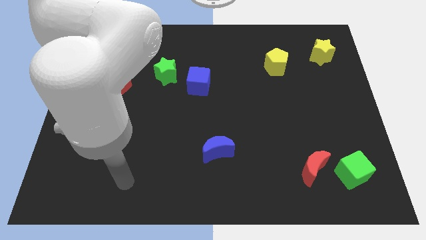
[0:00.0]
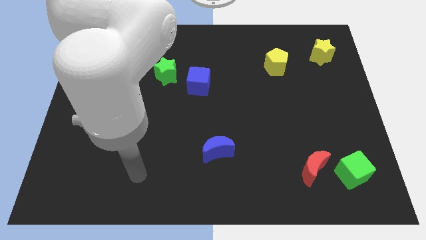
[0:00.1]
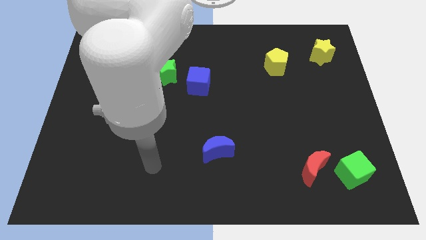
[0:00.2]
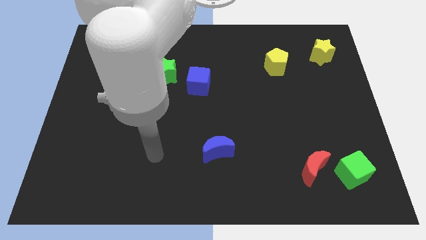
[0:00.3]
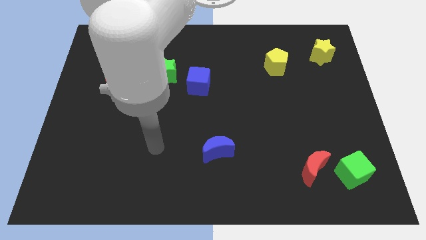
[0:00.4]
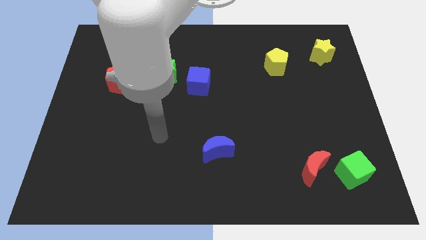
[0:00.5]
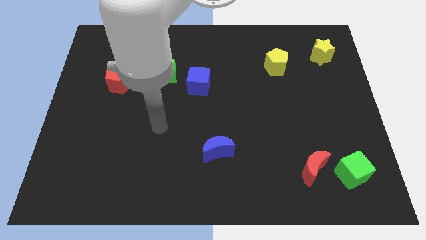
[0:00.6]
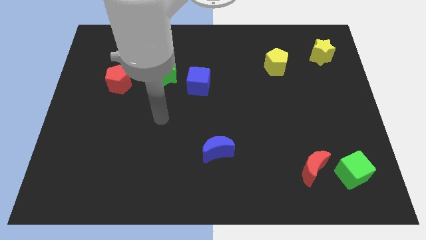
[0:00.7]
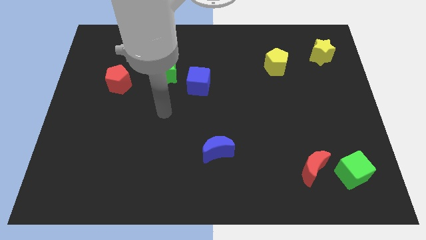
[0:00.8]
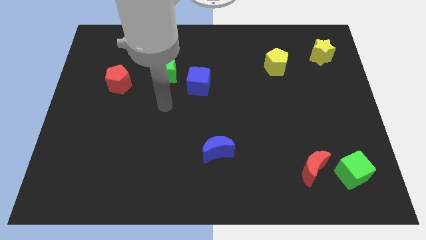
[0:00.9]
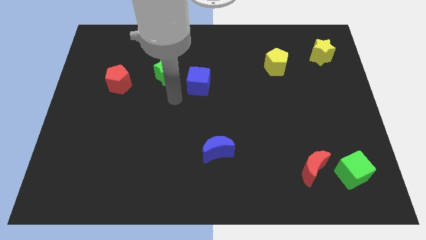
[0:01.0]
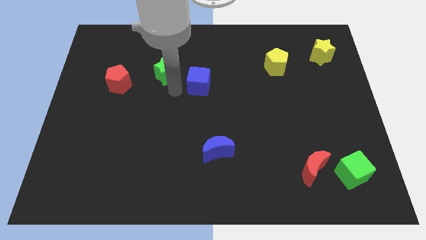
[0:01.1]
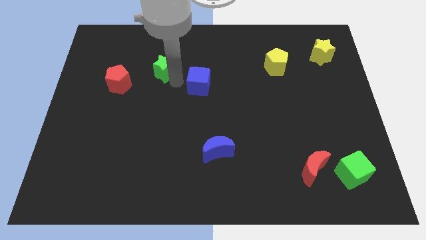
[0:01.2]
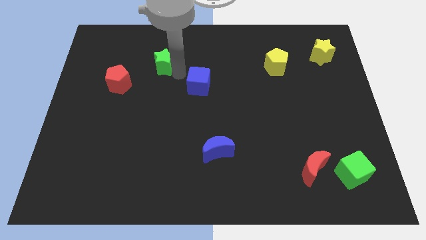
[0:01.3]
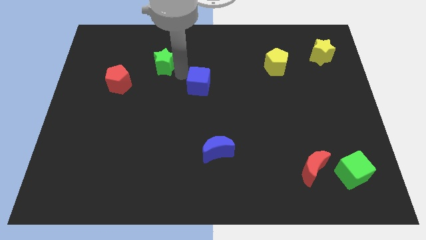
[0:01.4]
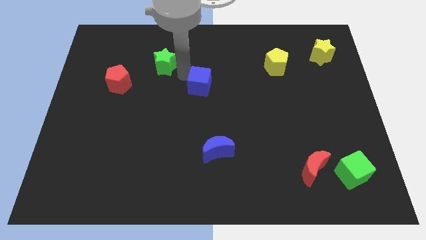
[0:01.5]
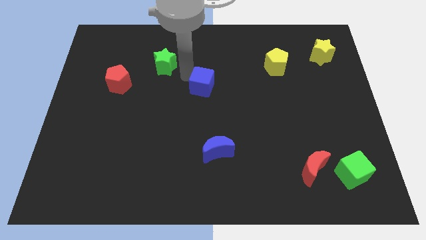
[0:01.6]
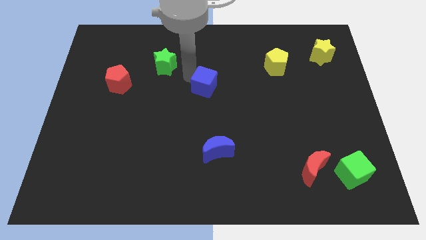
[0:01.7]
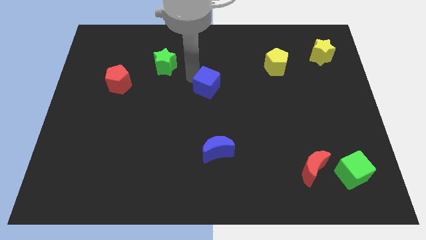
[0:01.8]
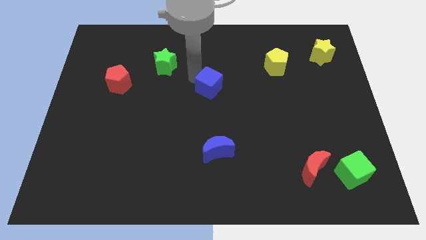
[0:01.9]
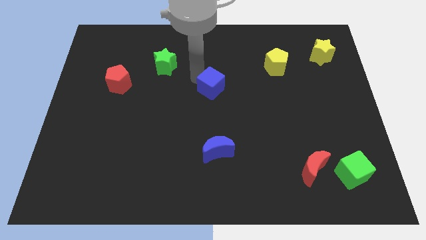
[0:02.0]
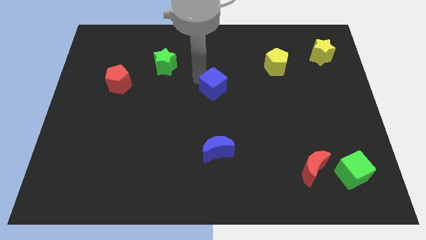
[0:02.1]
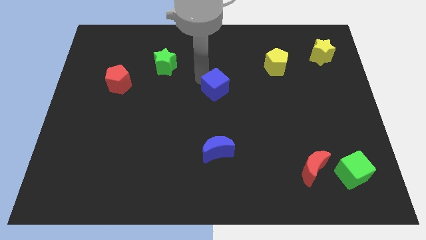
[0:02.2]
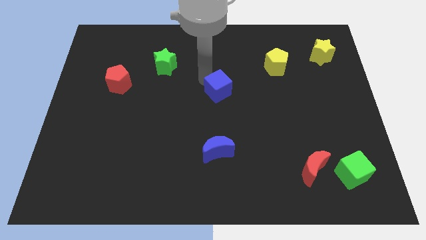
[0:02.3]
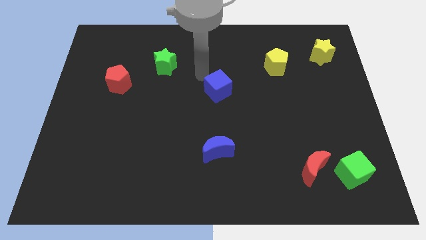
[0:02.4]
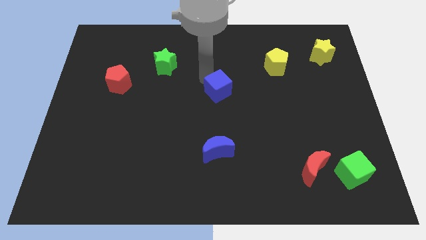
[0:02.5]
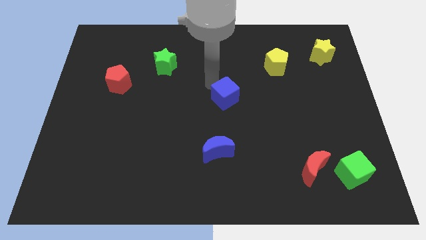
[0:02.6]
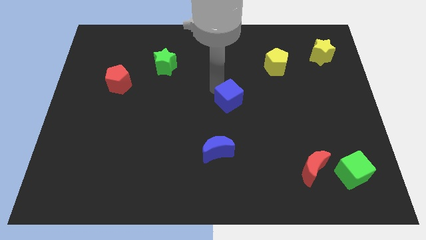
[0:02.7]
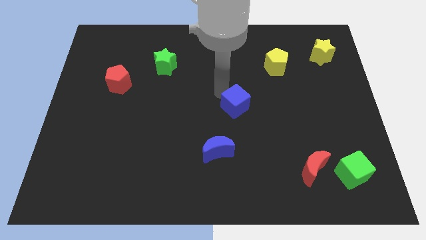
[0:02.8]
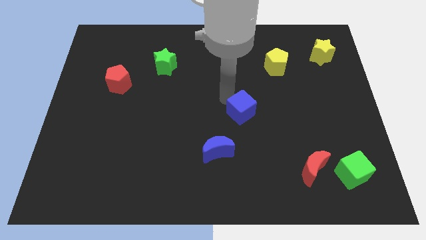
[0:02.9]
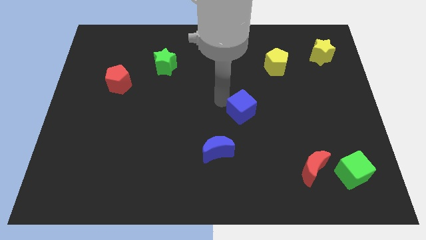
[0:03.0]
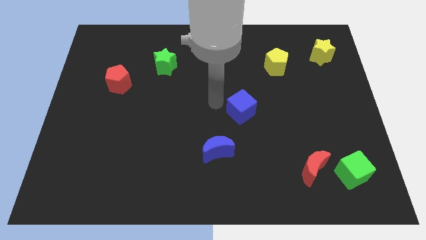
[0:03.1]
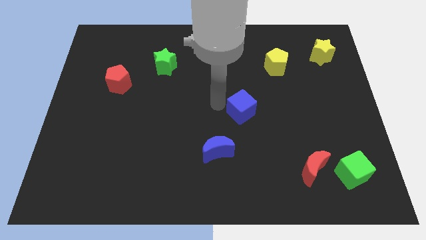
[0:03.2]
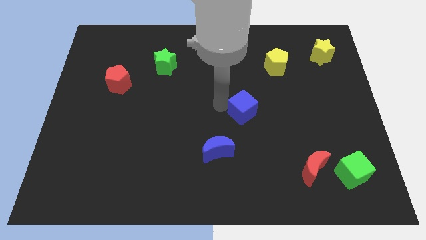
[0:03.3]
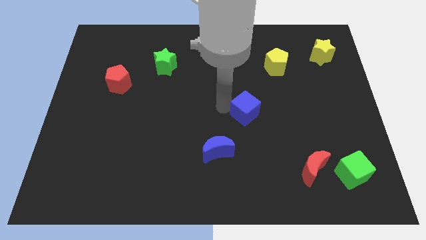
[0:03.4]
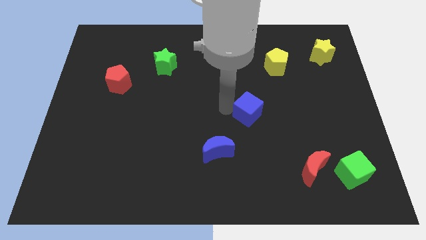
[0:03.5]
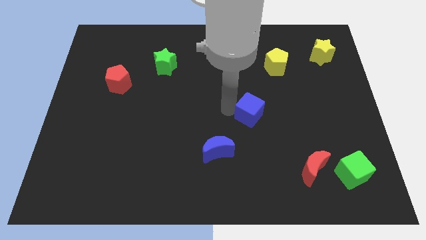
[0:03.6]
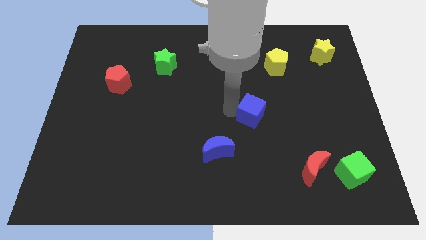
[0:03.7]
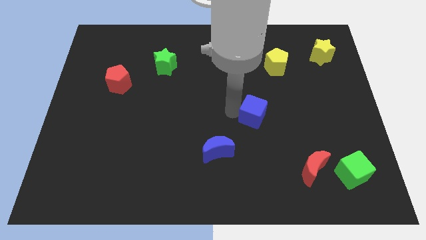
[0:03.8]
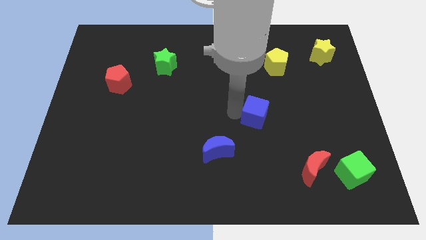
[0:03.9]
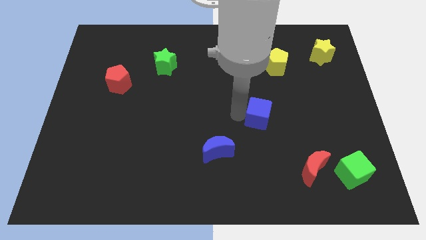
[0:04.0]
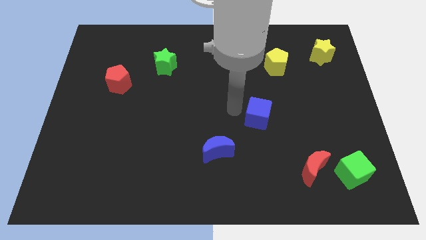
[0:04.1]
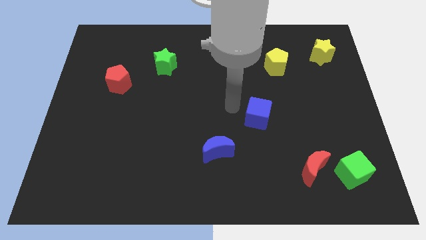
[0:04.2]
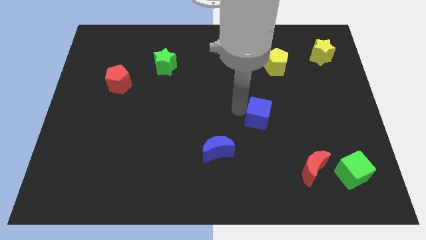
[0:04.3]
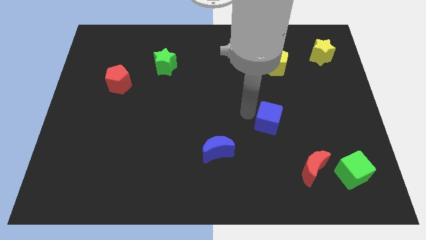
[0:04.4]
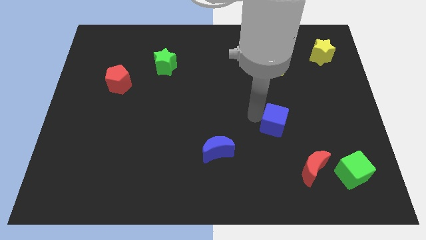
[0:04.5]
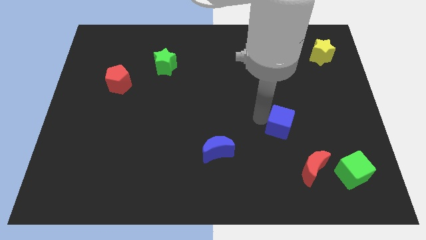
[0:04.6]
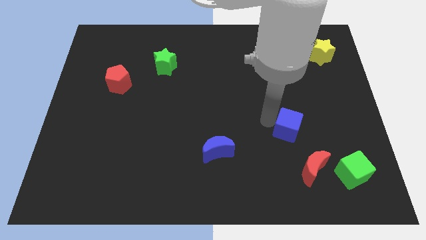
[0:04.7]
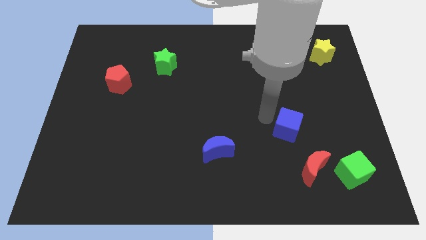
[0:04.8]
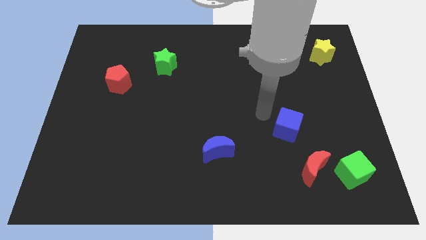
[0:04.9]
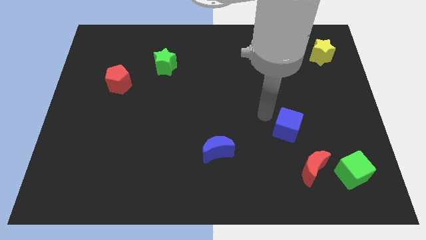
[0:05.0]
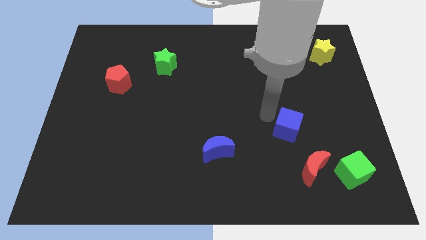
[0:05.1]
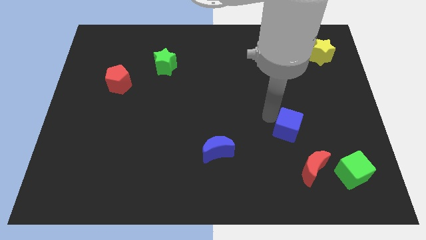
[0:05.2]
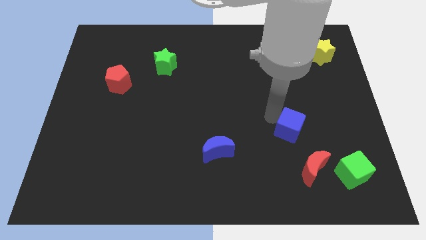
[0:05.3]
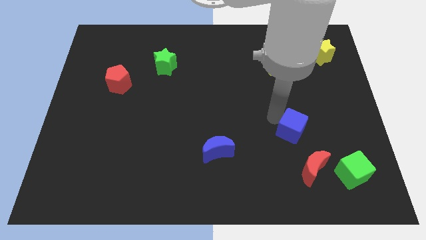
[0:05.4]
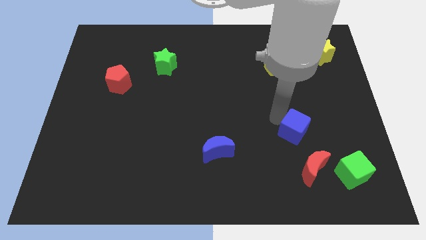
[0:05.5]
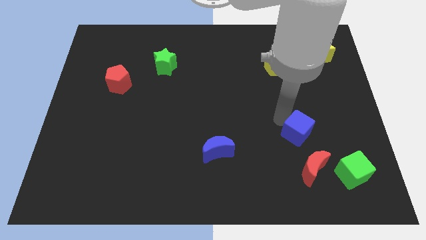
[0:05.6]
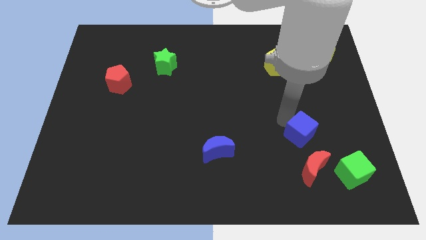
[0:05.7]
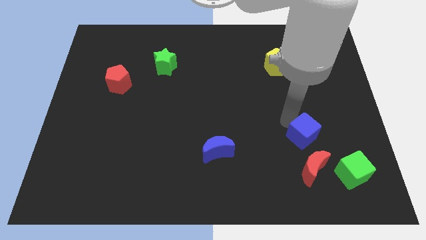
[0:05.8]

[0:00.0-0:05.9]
push the blue cube to the top left of the green cube

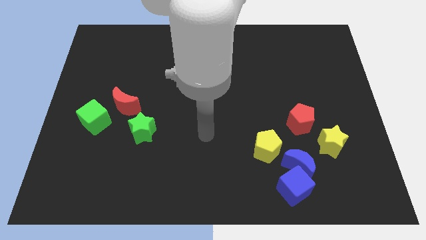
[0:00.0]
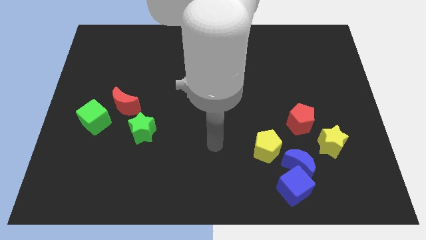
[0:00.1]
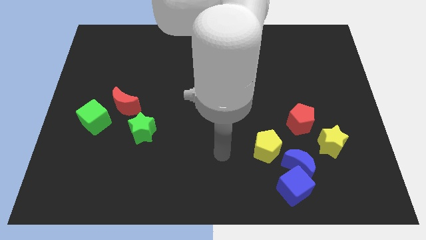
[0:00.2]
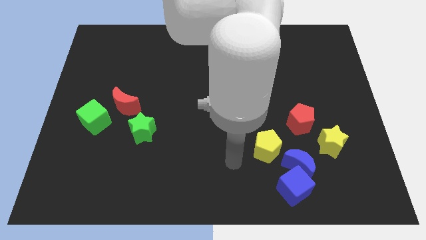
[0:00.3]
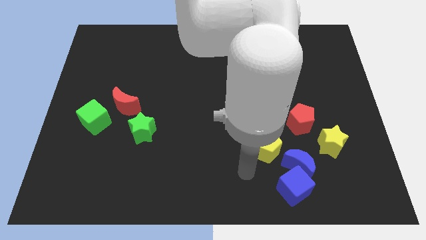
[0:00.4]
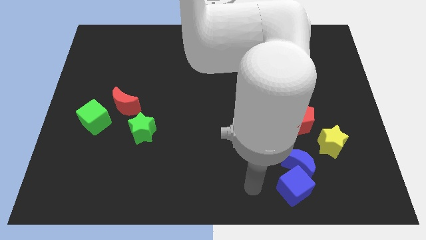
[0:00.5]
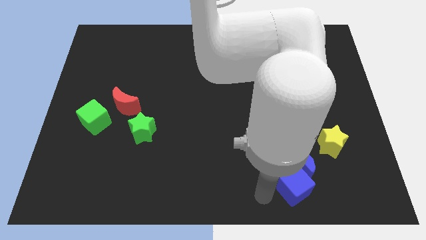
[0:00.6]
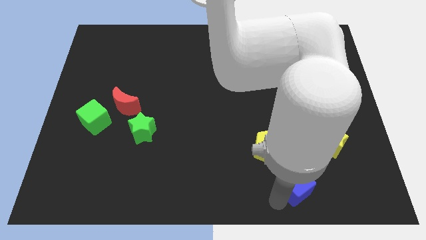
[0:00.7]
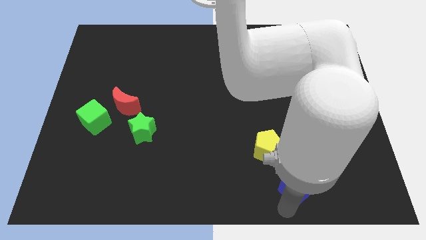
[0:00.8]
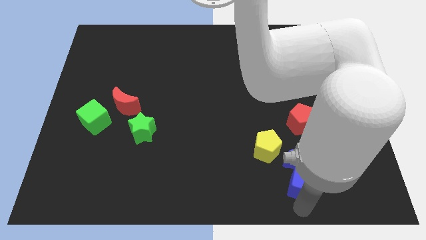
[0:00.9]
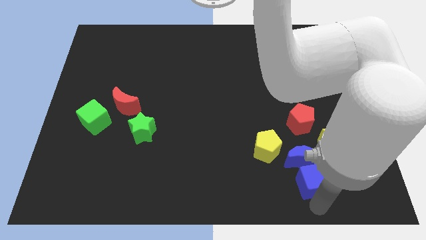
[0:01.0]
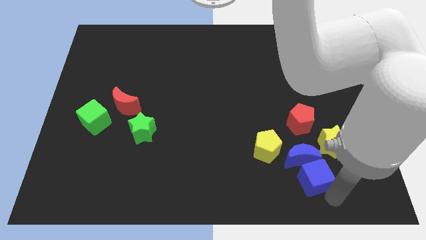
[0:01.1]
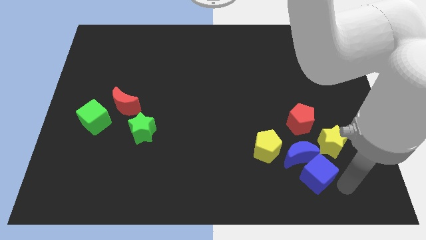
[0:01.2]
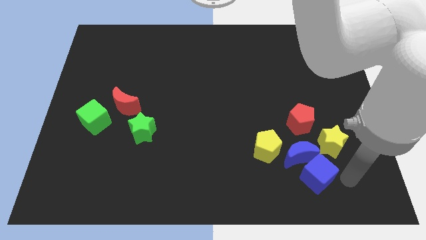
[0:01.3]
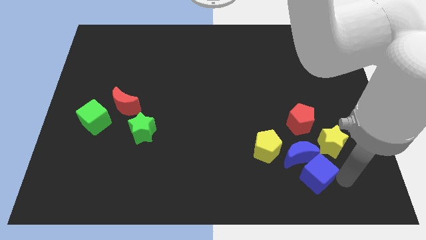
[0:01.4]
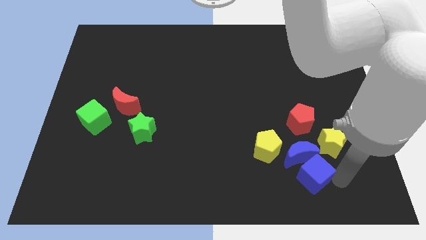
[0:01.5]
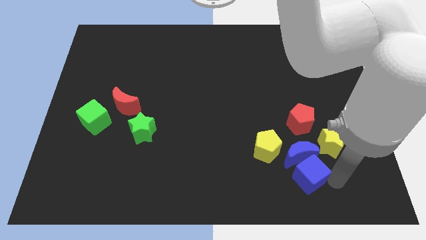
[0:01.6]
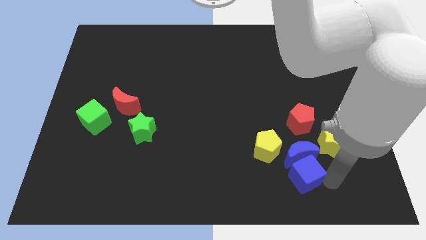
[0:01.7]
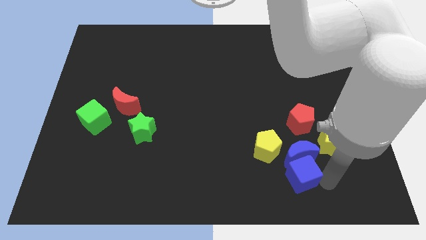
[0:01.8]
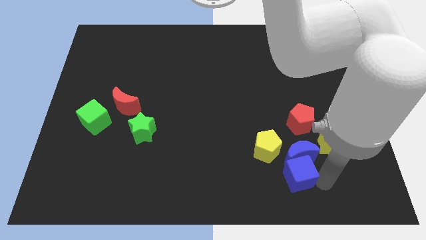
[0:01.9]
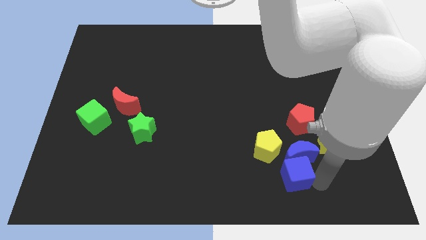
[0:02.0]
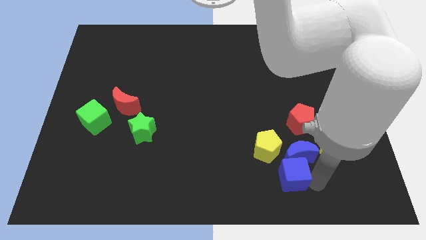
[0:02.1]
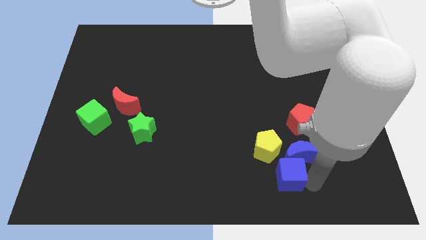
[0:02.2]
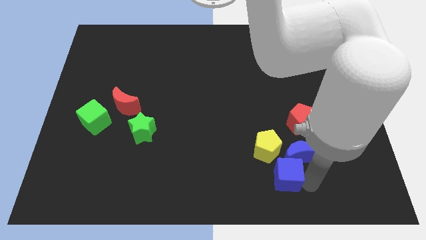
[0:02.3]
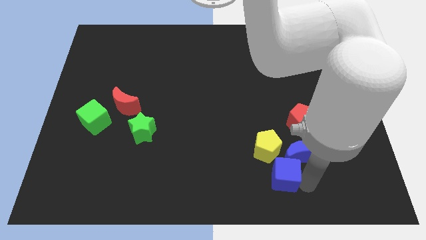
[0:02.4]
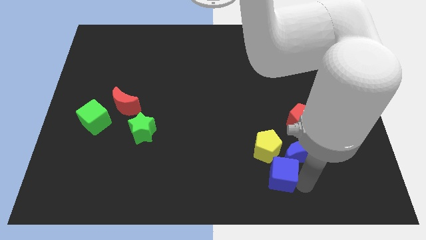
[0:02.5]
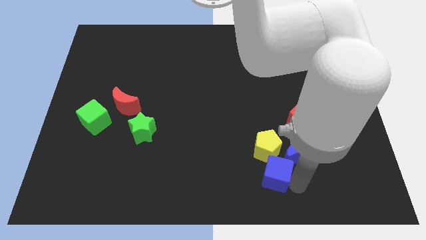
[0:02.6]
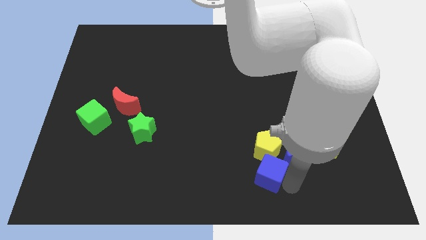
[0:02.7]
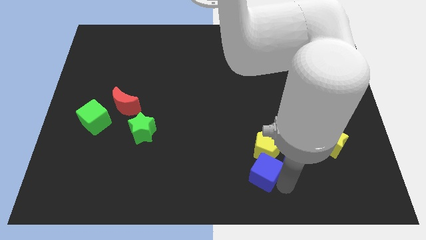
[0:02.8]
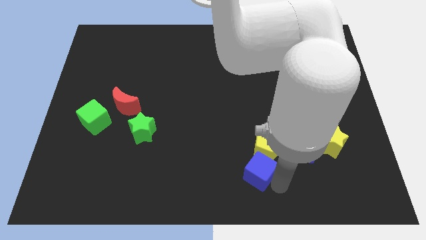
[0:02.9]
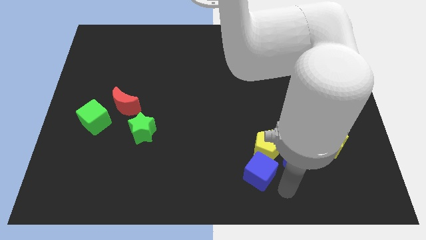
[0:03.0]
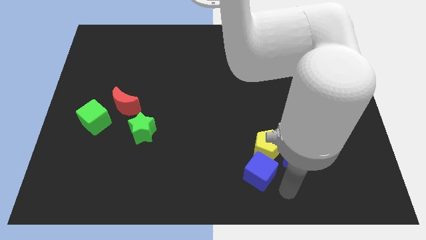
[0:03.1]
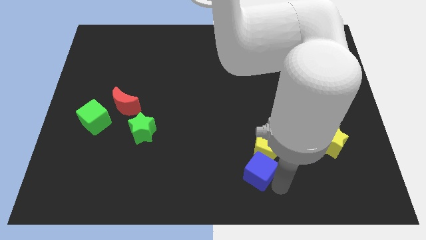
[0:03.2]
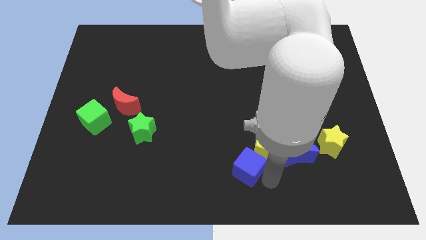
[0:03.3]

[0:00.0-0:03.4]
move the blue cube to the left side of the yellow pentagon
